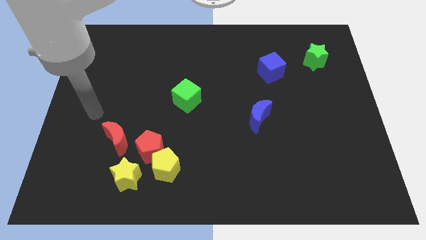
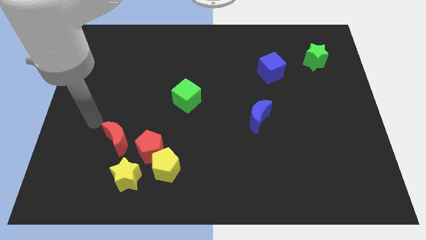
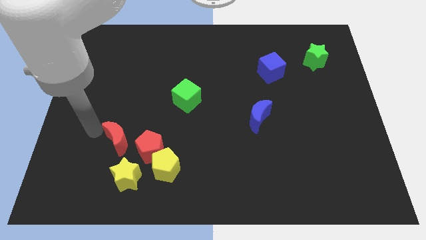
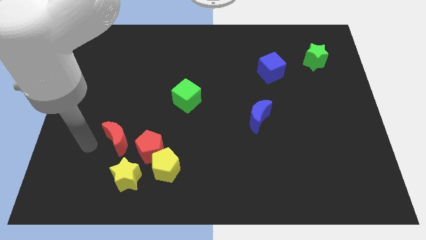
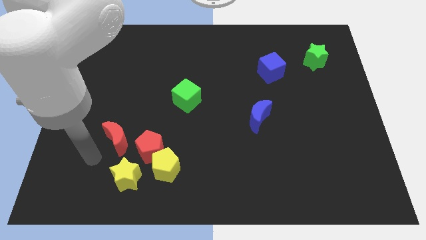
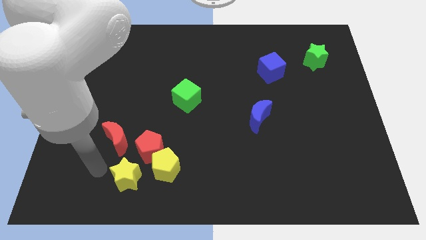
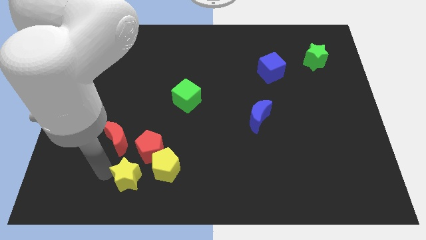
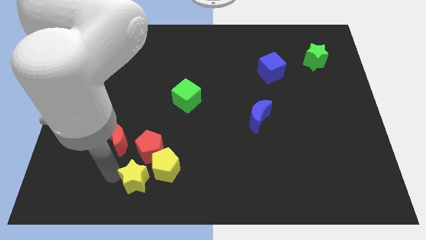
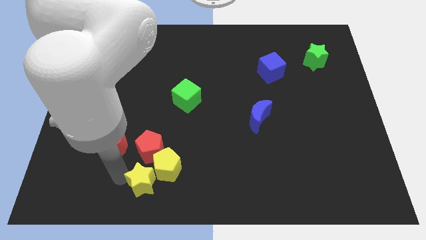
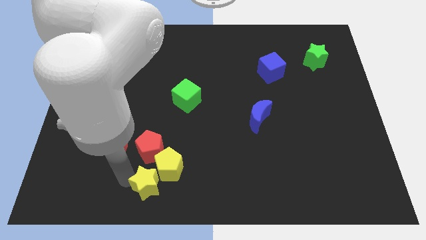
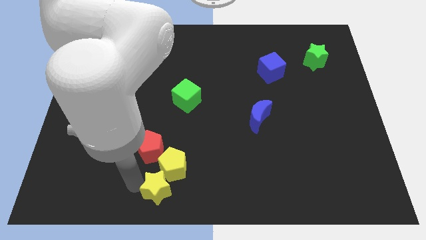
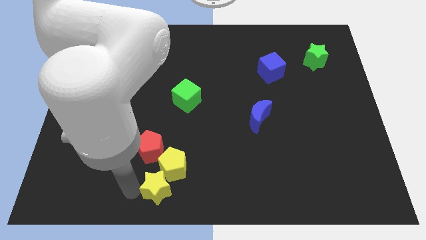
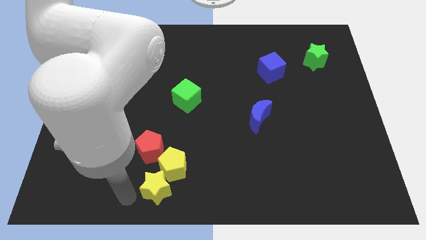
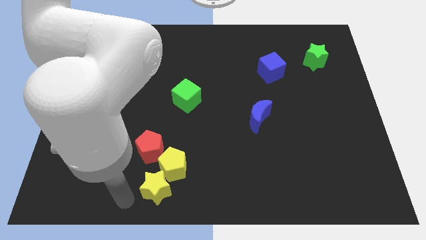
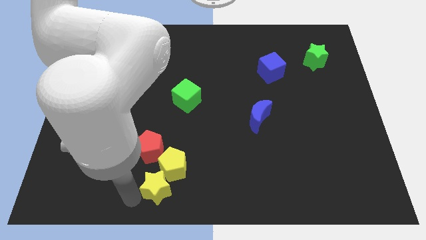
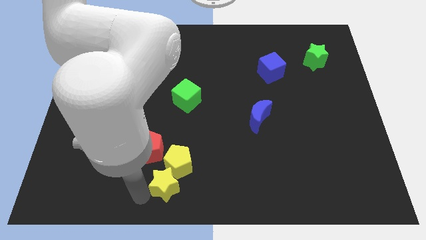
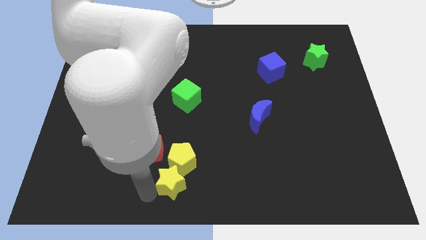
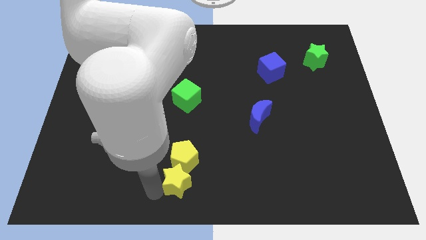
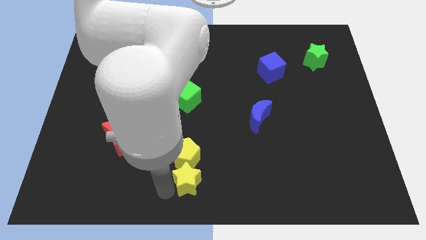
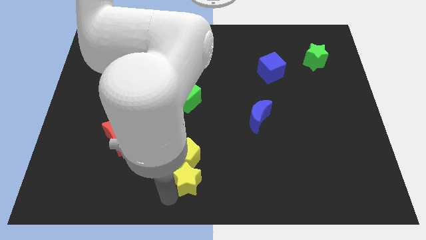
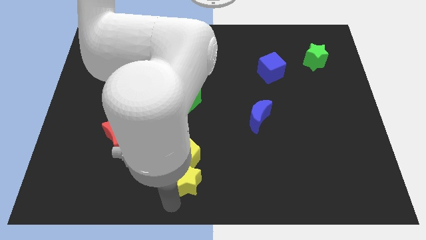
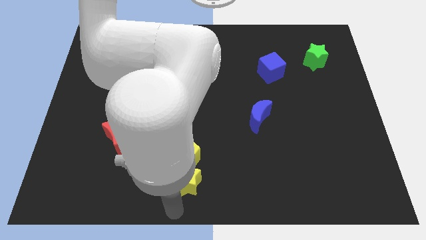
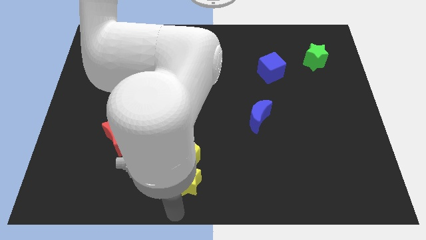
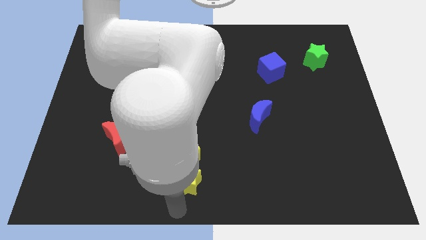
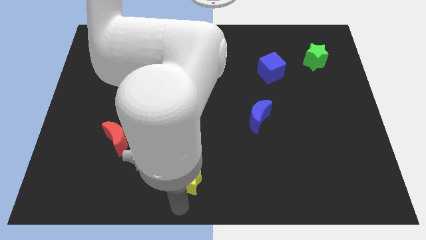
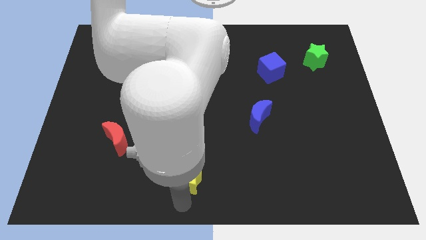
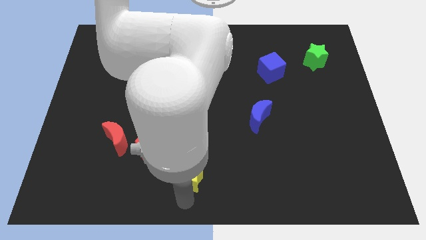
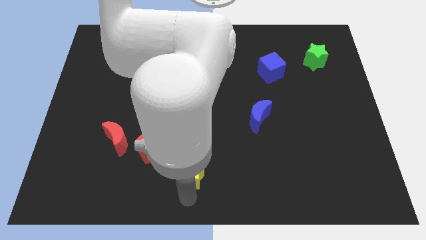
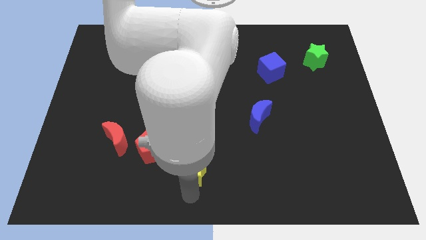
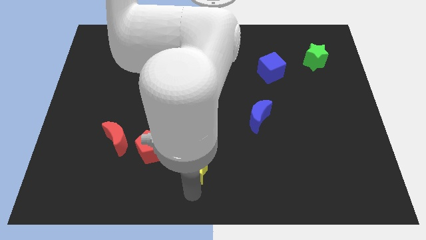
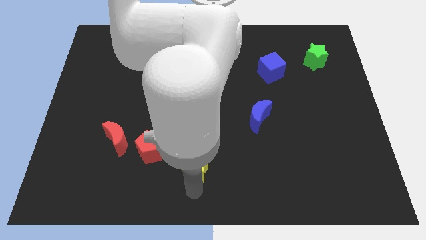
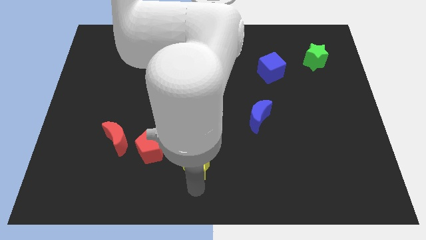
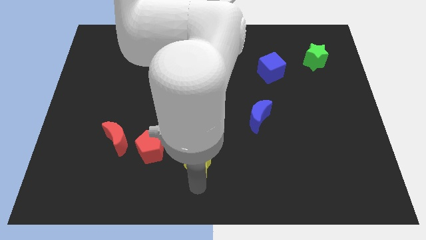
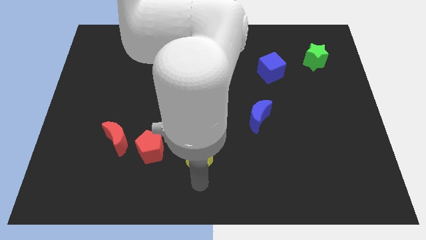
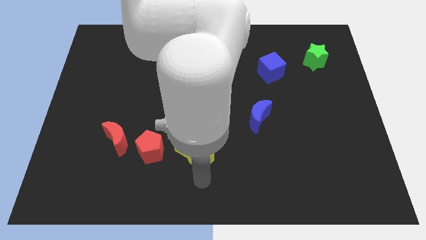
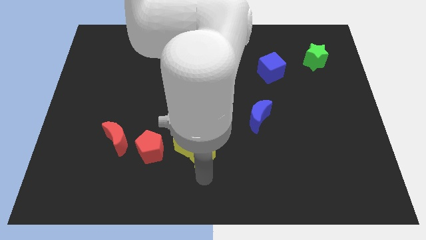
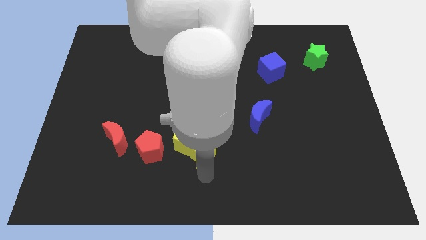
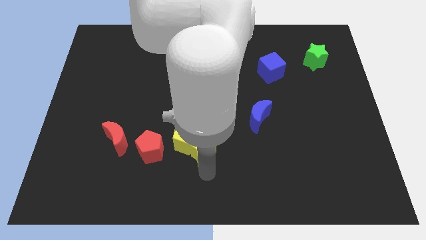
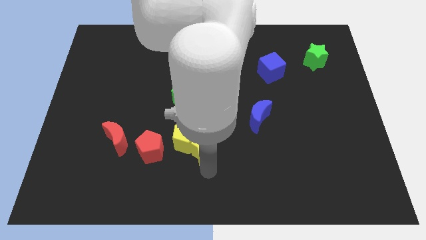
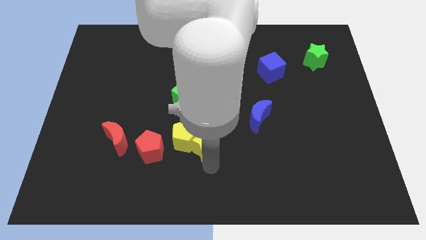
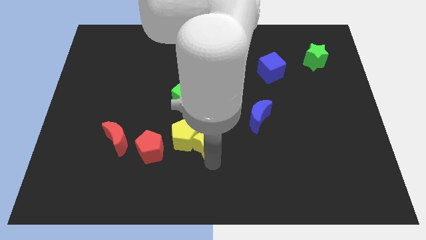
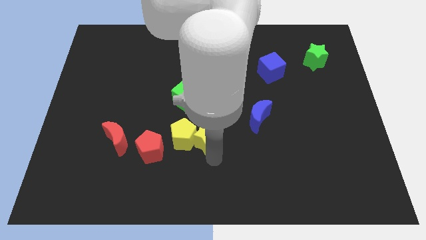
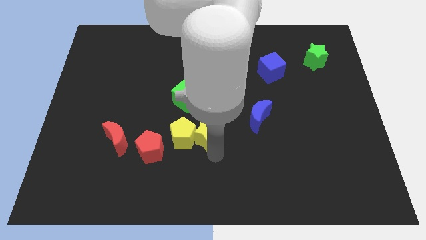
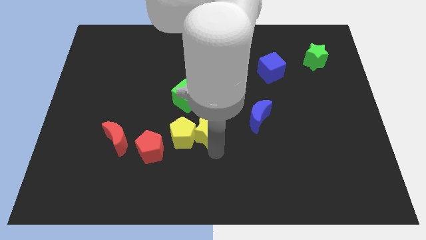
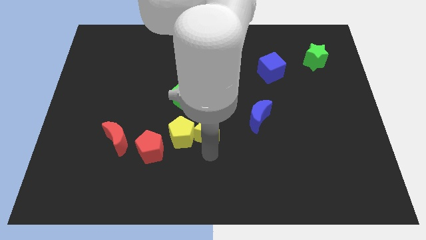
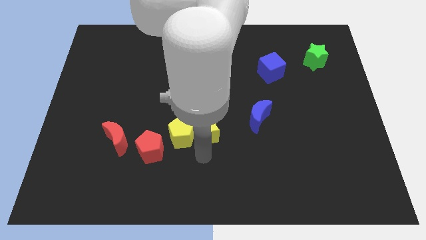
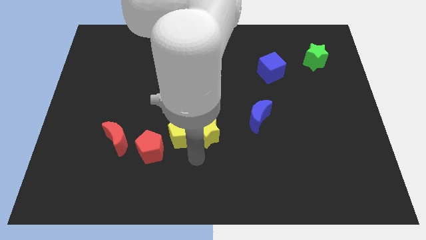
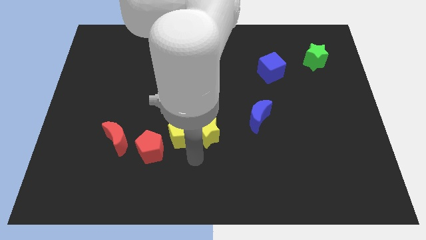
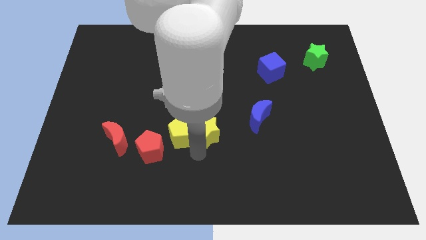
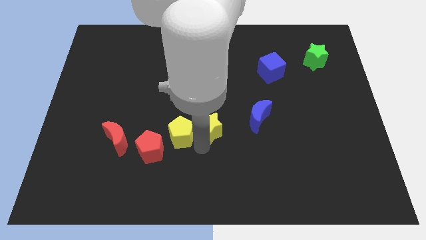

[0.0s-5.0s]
push the yellow star diagonally up and right

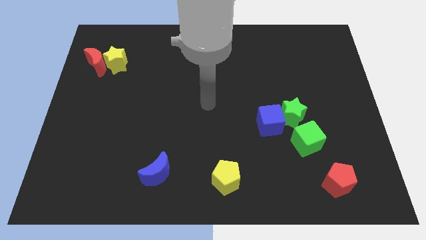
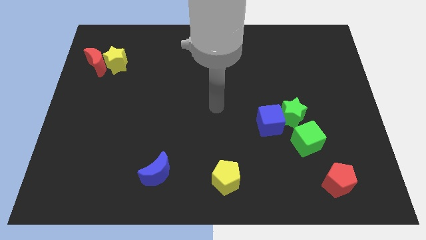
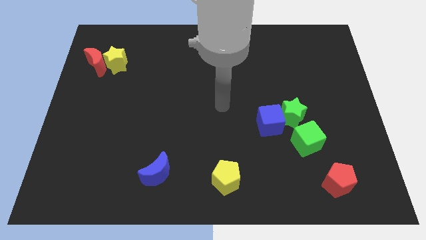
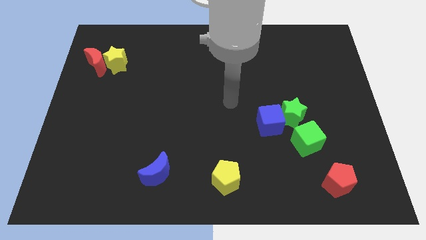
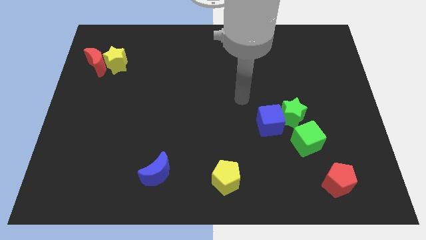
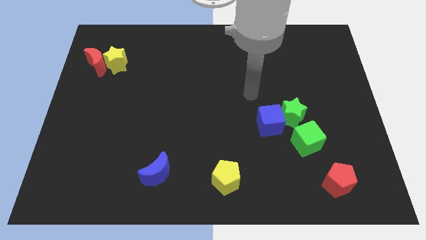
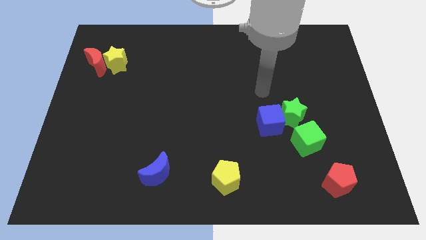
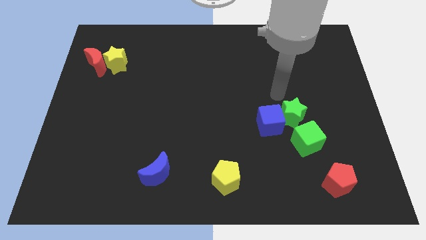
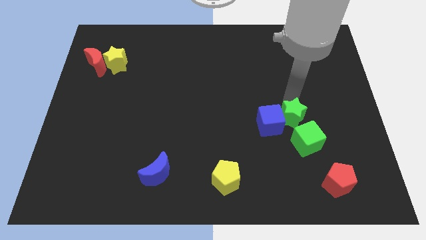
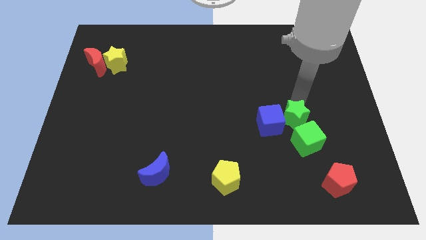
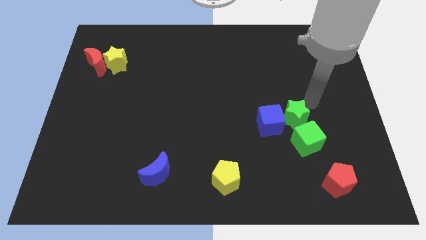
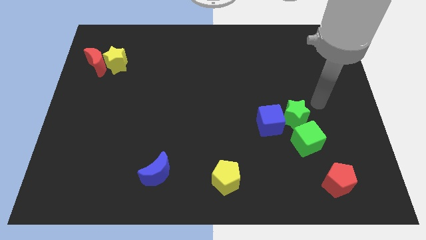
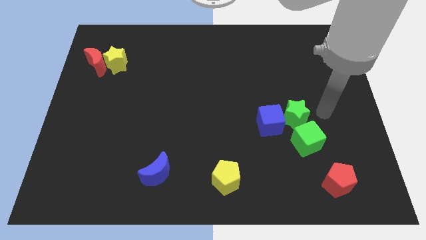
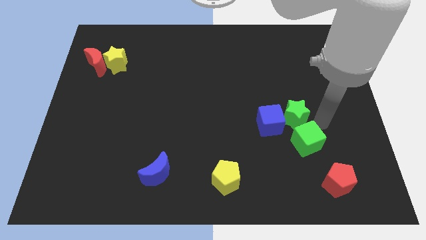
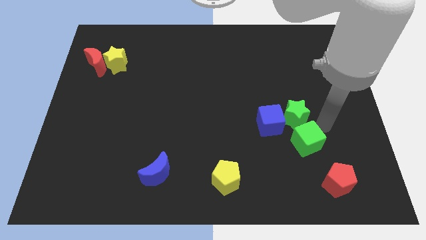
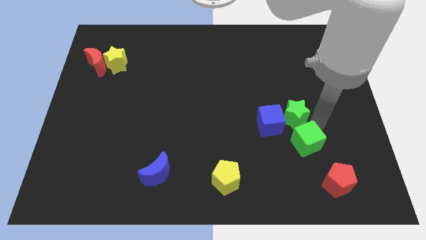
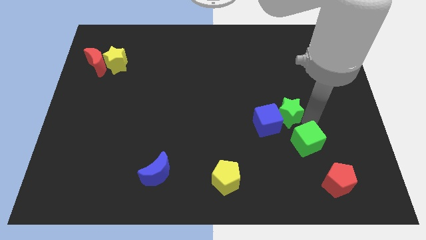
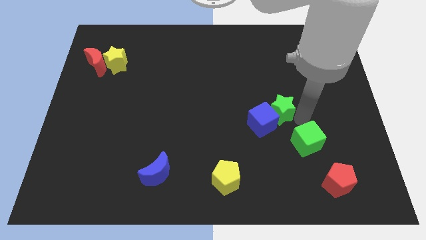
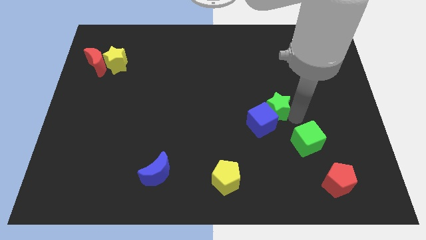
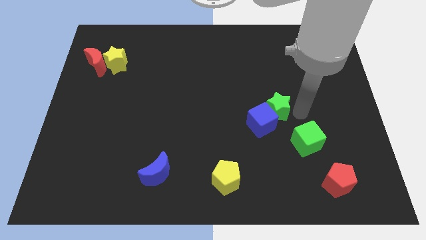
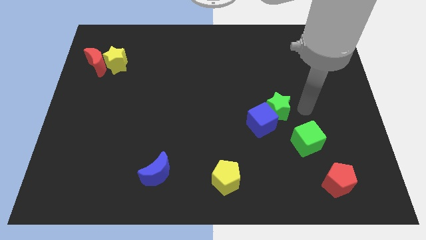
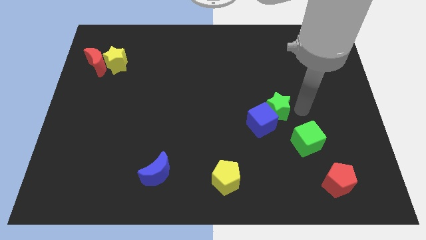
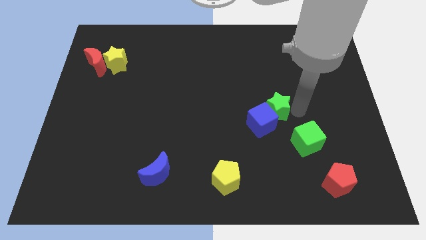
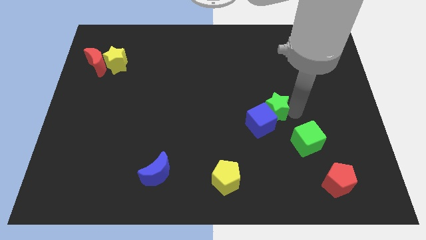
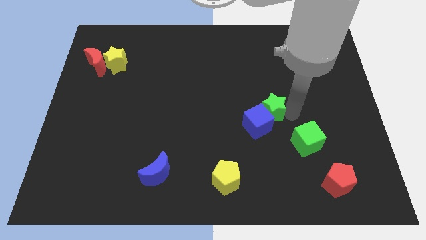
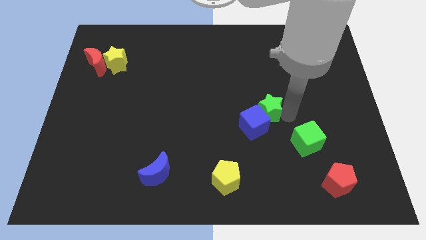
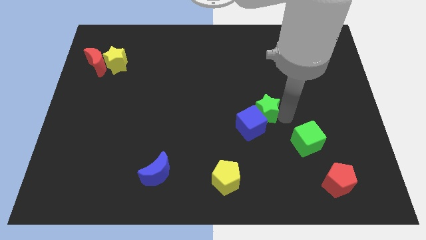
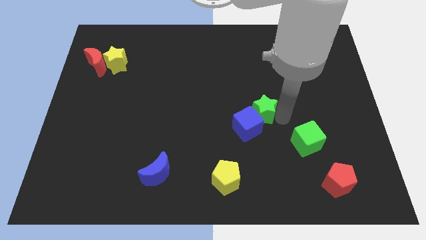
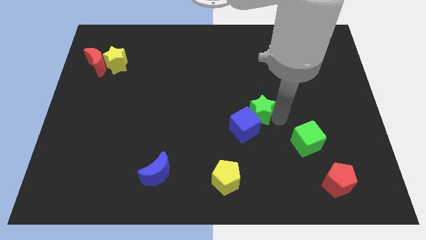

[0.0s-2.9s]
slide the green star left a little
